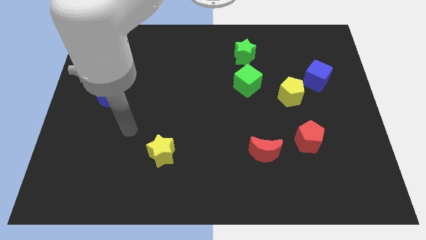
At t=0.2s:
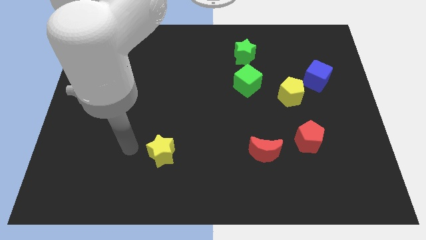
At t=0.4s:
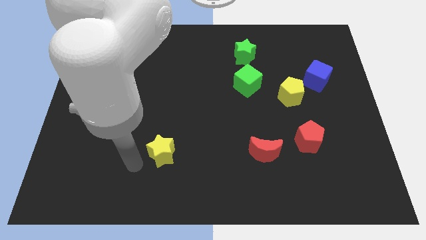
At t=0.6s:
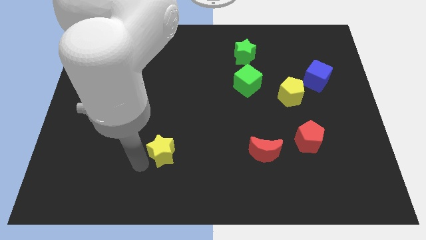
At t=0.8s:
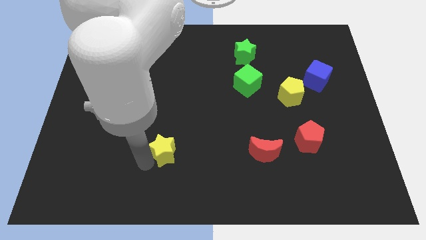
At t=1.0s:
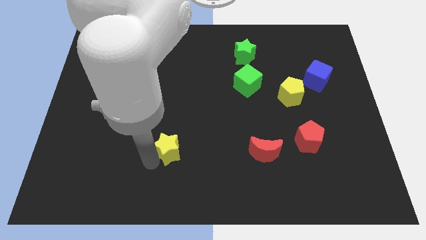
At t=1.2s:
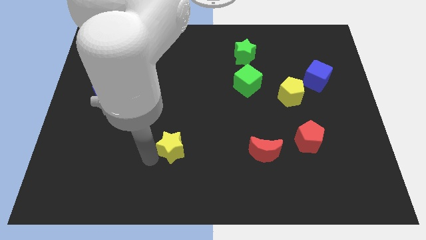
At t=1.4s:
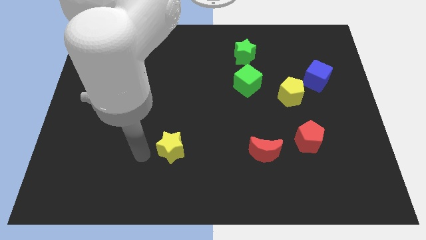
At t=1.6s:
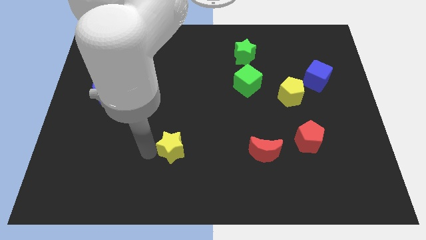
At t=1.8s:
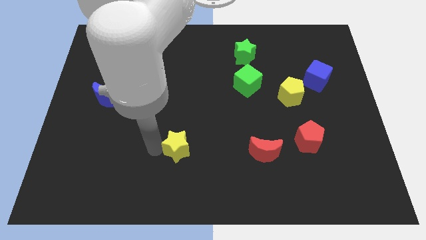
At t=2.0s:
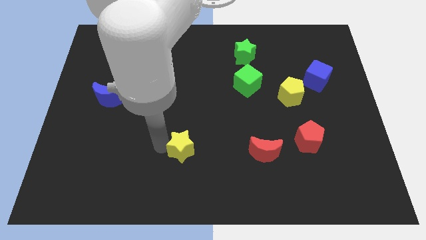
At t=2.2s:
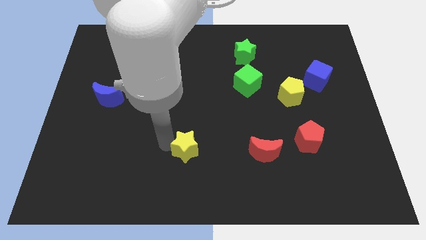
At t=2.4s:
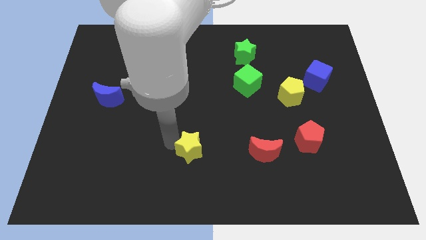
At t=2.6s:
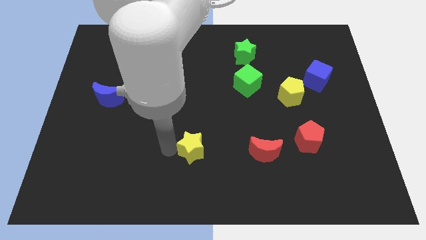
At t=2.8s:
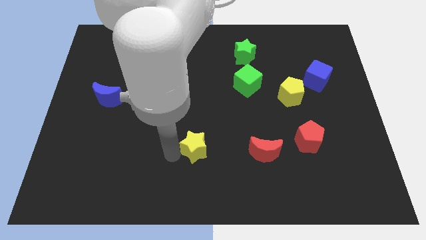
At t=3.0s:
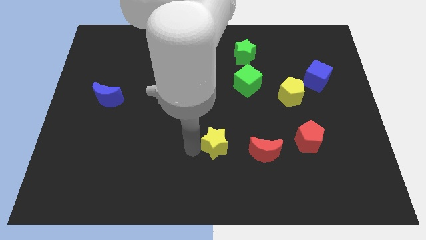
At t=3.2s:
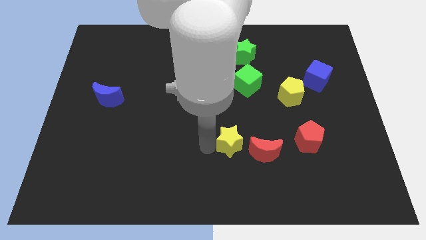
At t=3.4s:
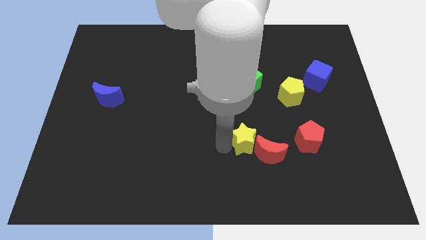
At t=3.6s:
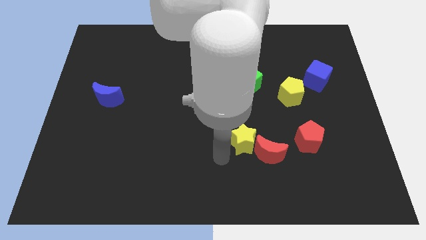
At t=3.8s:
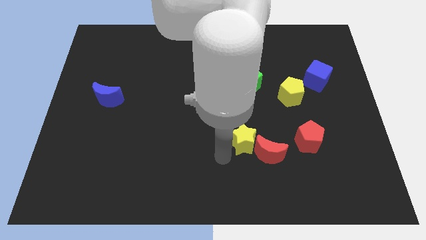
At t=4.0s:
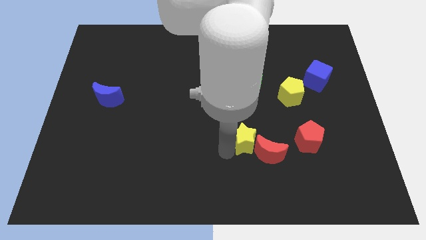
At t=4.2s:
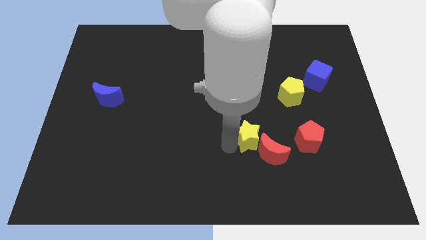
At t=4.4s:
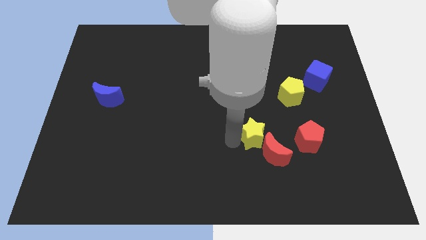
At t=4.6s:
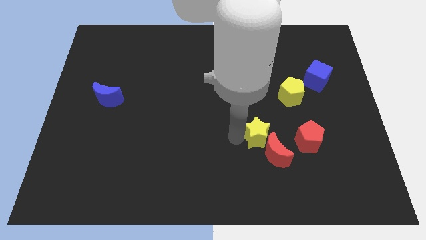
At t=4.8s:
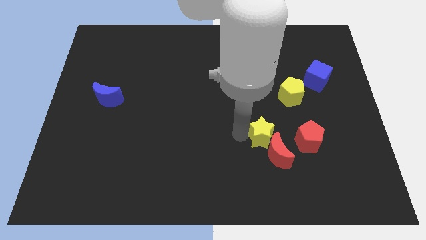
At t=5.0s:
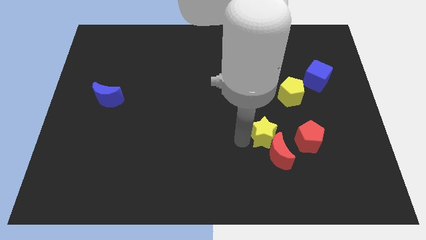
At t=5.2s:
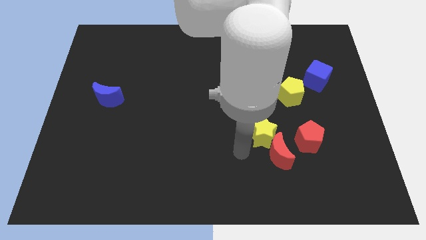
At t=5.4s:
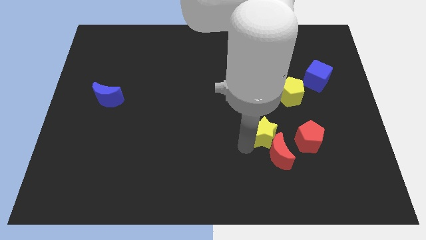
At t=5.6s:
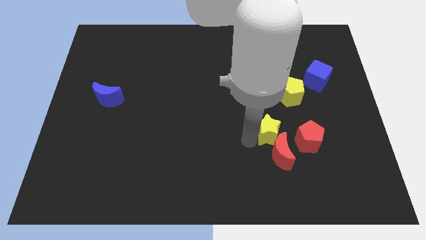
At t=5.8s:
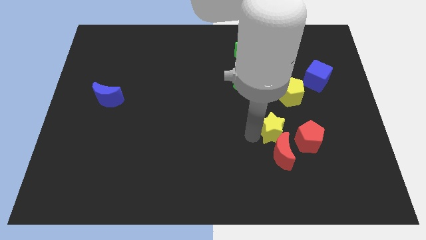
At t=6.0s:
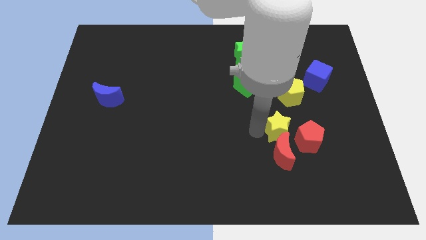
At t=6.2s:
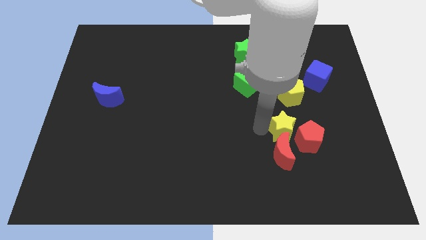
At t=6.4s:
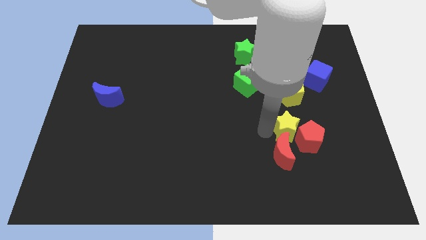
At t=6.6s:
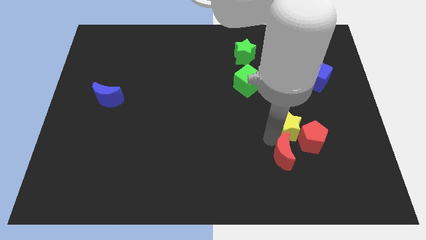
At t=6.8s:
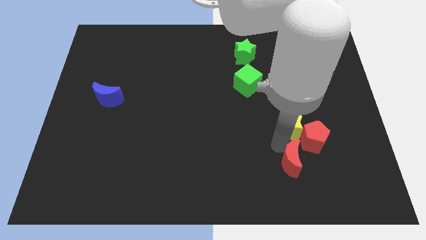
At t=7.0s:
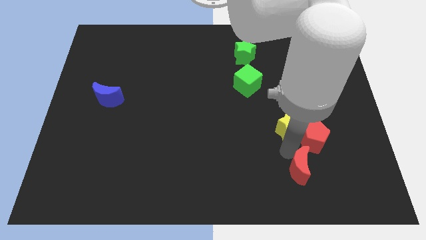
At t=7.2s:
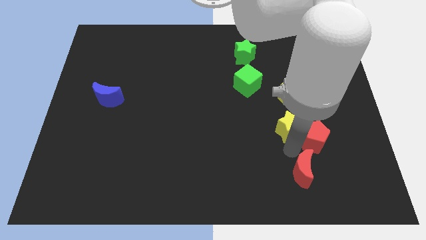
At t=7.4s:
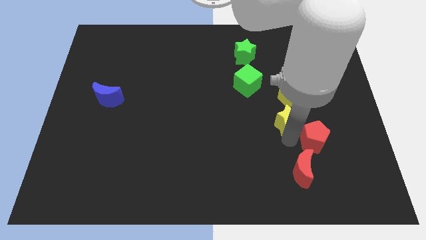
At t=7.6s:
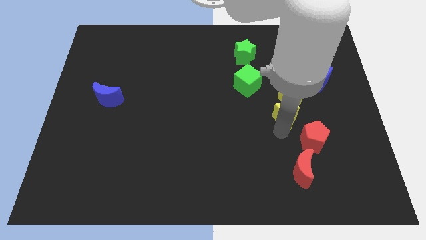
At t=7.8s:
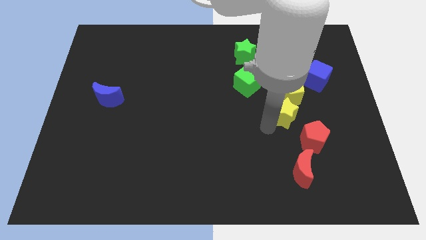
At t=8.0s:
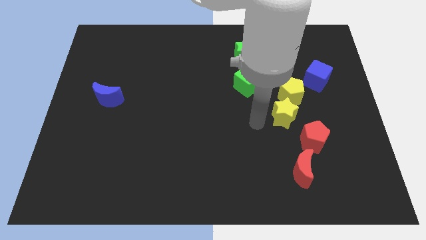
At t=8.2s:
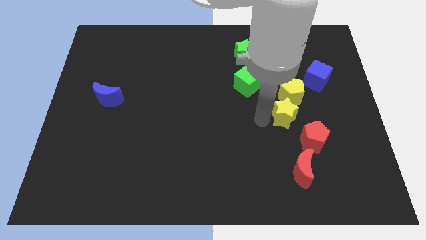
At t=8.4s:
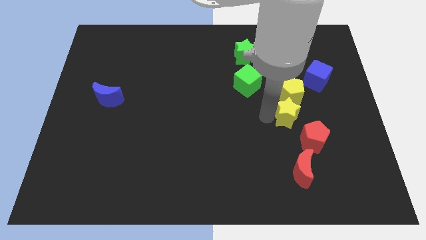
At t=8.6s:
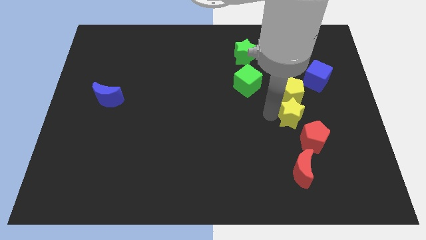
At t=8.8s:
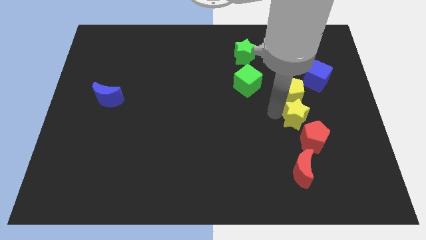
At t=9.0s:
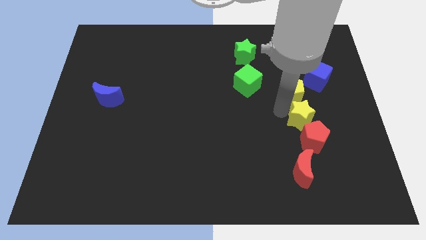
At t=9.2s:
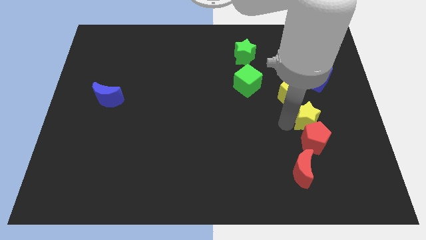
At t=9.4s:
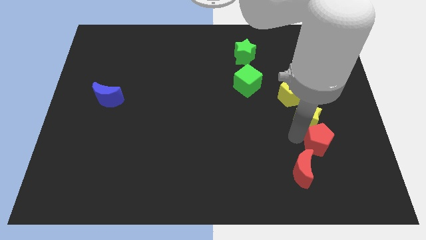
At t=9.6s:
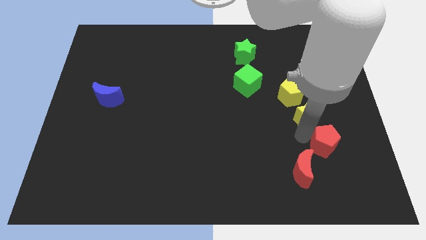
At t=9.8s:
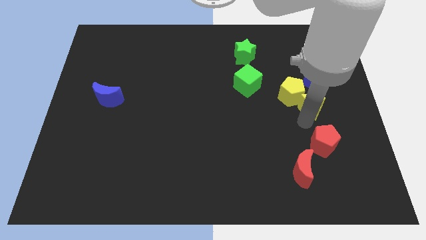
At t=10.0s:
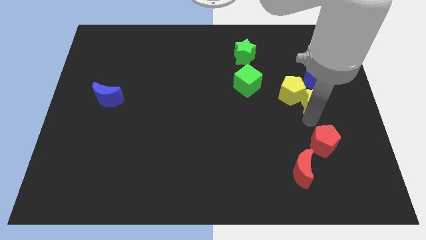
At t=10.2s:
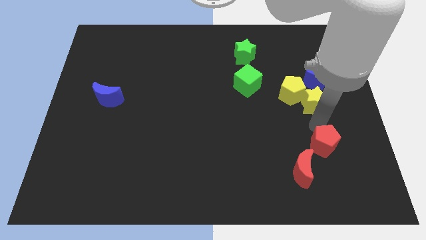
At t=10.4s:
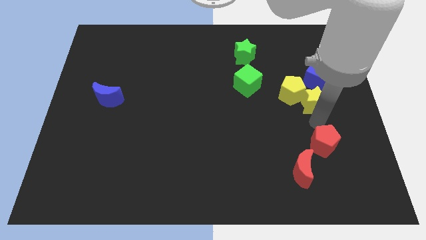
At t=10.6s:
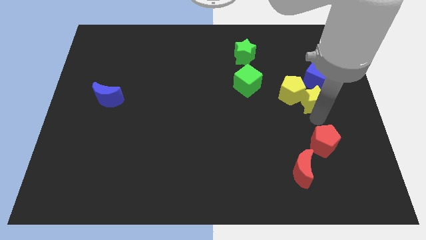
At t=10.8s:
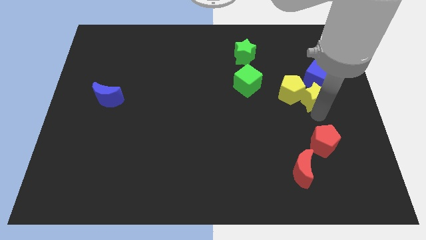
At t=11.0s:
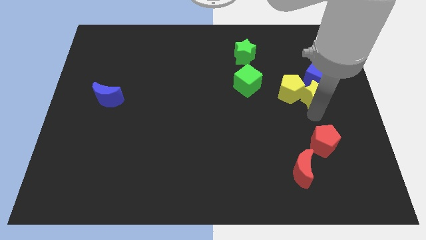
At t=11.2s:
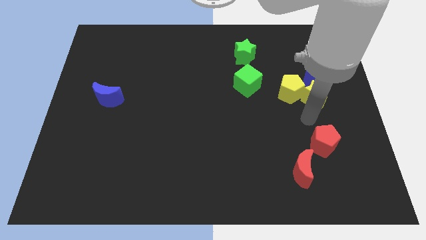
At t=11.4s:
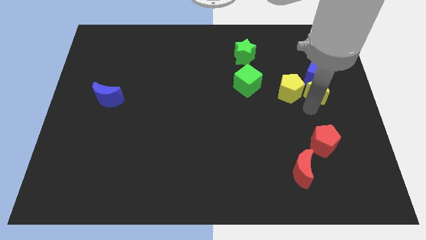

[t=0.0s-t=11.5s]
move the yellow star to the blue cube
